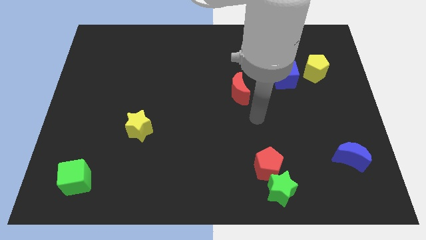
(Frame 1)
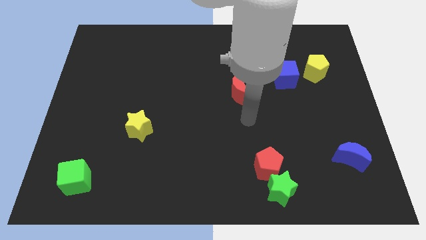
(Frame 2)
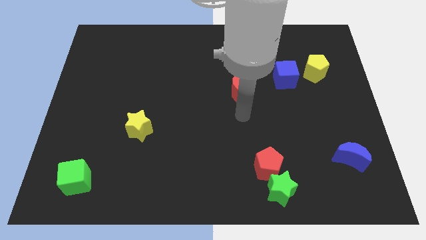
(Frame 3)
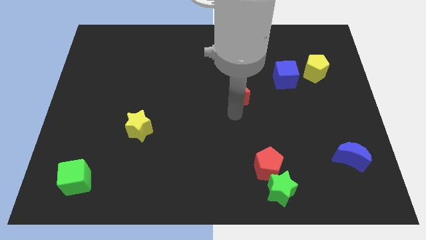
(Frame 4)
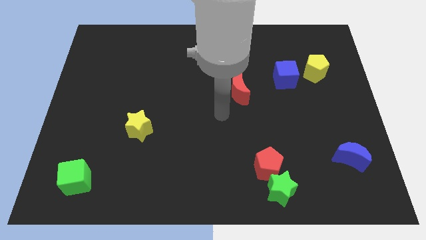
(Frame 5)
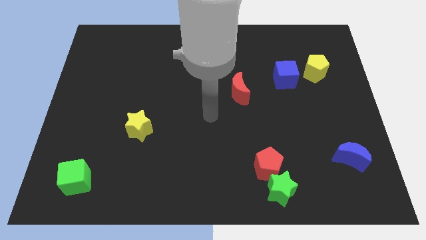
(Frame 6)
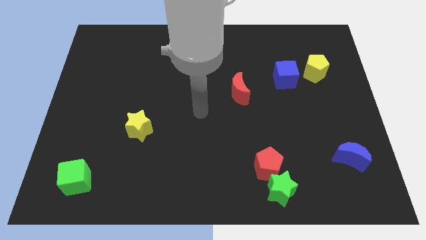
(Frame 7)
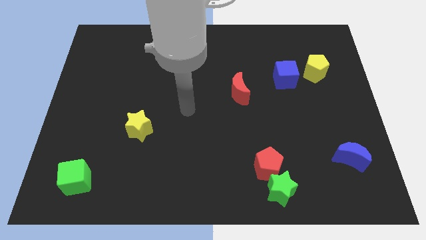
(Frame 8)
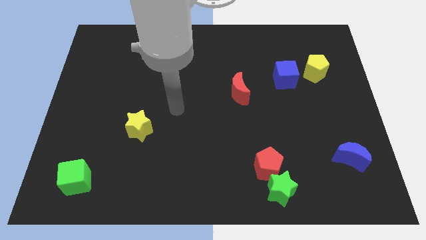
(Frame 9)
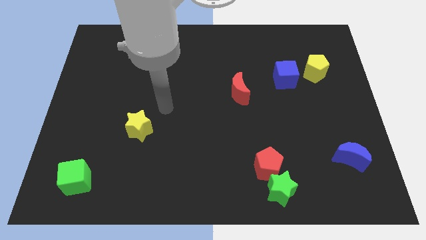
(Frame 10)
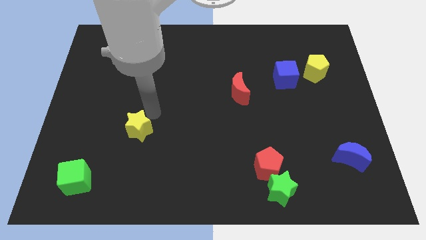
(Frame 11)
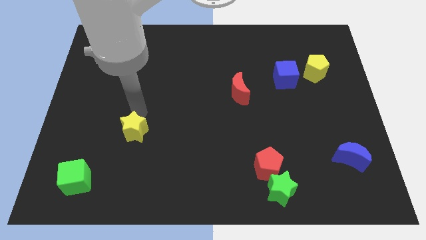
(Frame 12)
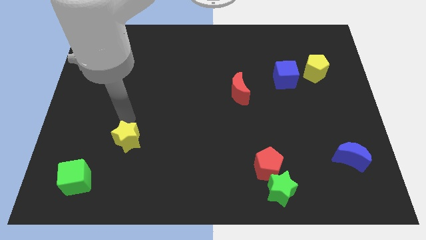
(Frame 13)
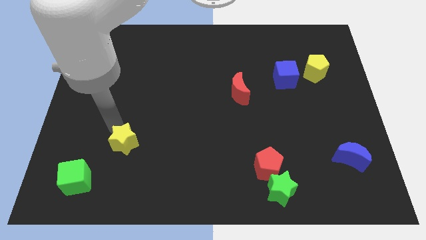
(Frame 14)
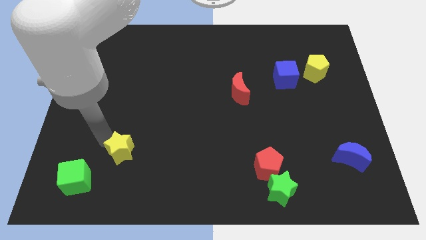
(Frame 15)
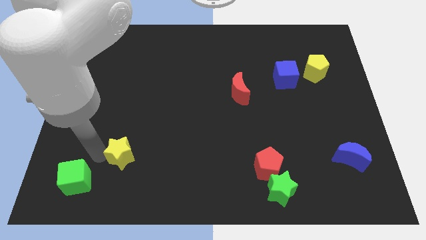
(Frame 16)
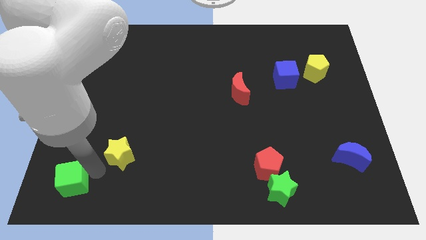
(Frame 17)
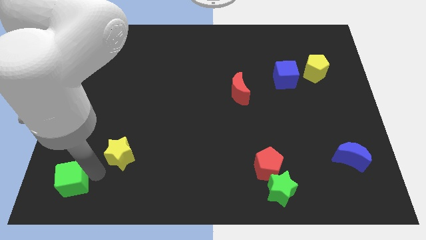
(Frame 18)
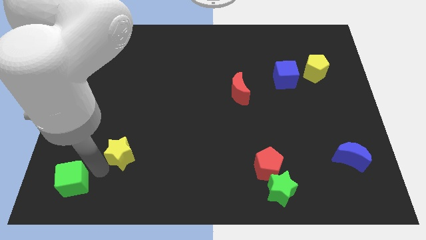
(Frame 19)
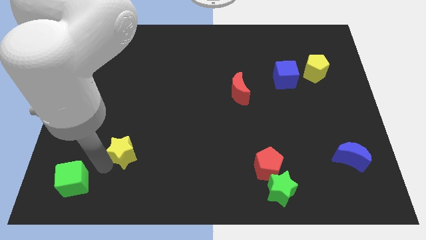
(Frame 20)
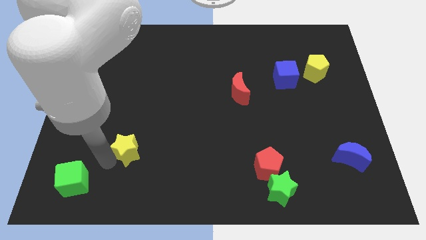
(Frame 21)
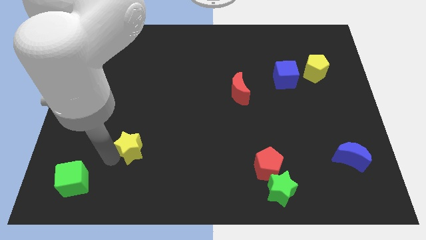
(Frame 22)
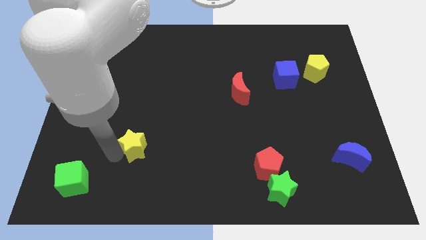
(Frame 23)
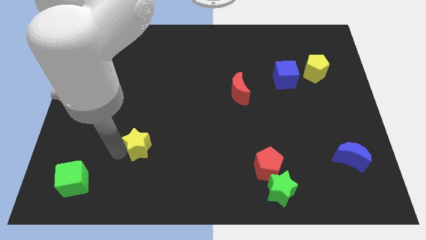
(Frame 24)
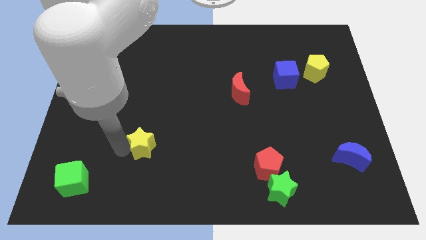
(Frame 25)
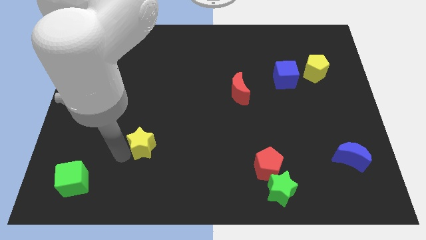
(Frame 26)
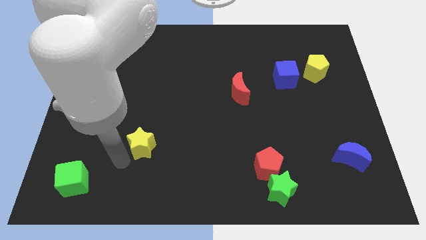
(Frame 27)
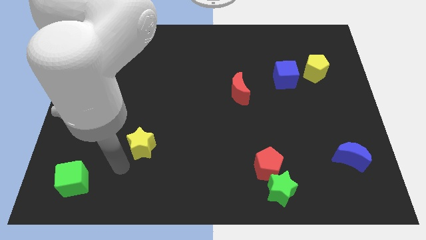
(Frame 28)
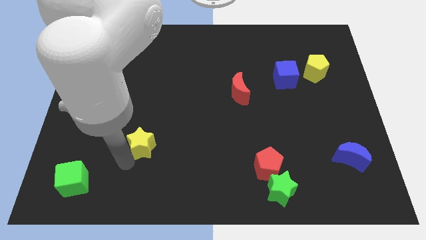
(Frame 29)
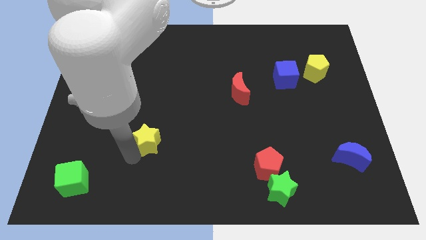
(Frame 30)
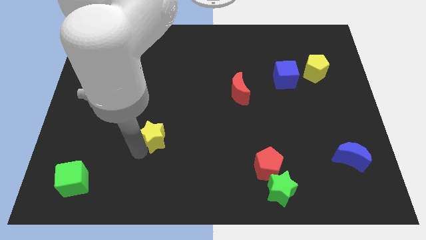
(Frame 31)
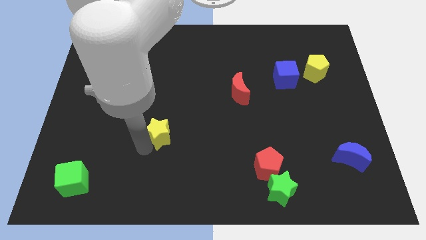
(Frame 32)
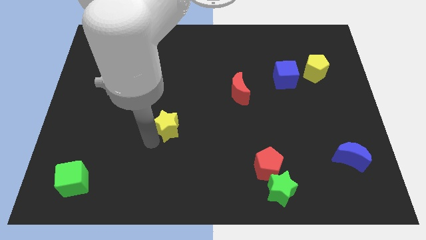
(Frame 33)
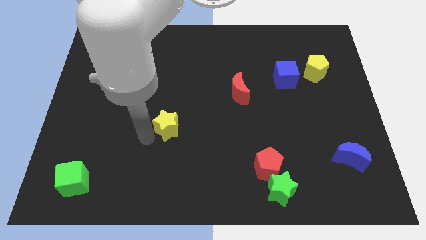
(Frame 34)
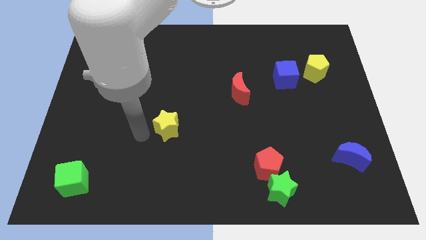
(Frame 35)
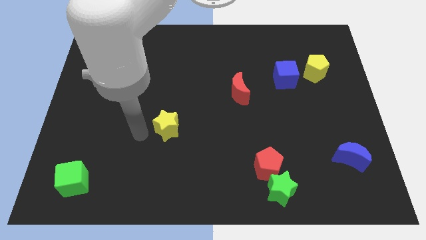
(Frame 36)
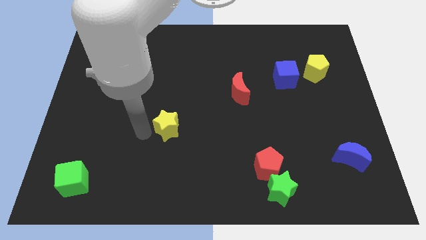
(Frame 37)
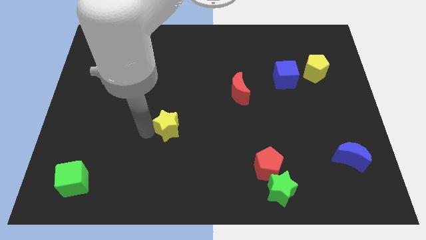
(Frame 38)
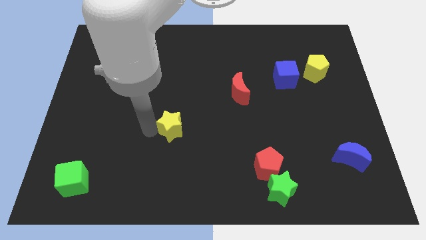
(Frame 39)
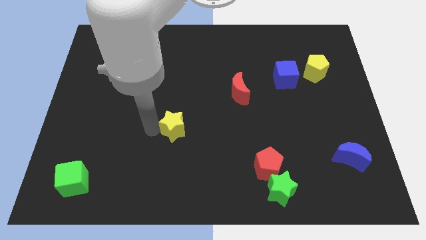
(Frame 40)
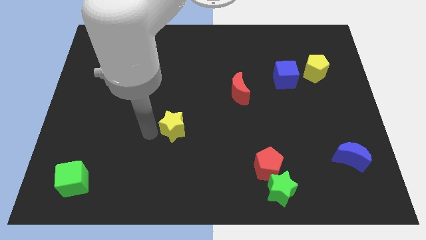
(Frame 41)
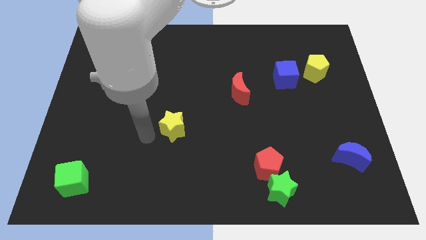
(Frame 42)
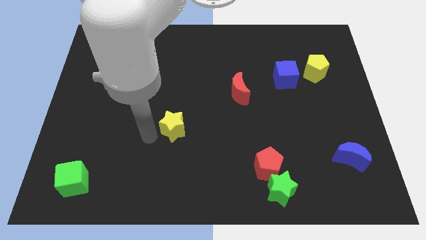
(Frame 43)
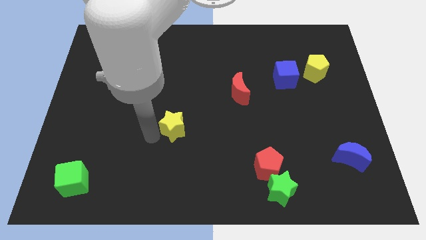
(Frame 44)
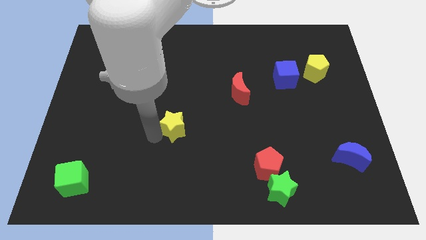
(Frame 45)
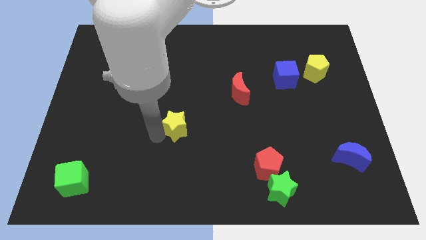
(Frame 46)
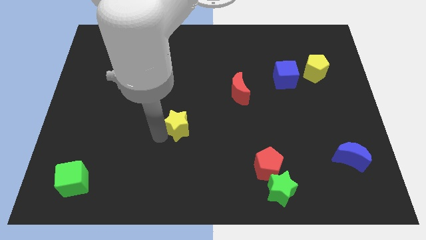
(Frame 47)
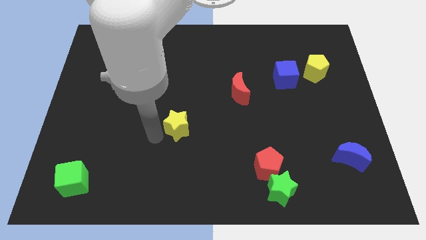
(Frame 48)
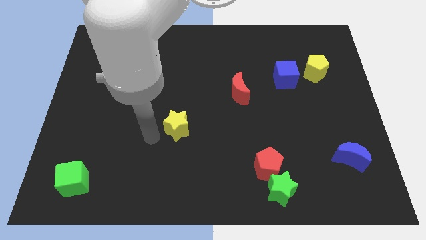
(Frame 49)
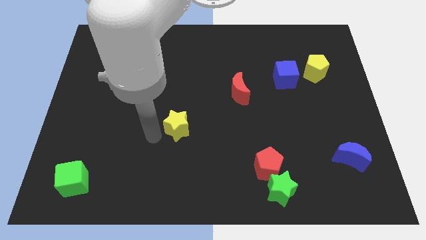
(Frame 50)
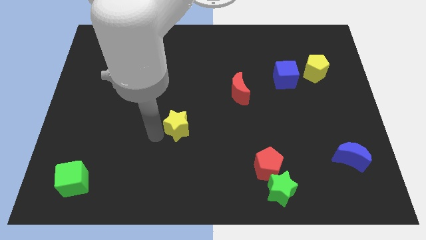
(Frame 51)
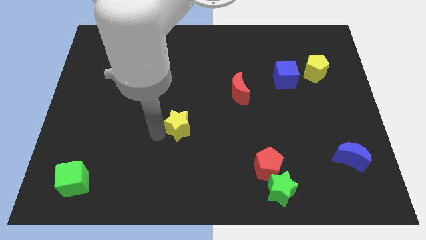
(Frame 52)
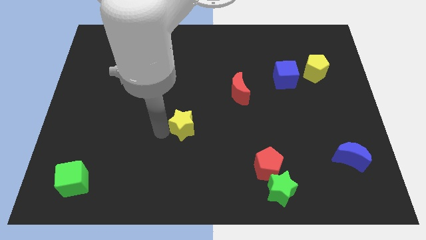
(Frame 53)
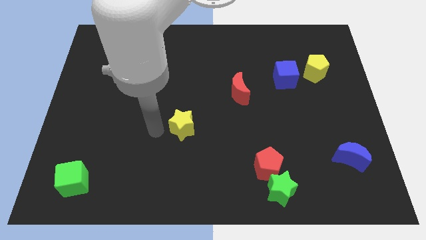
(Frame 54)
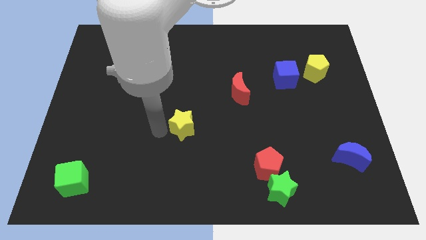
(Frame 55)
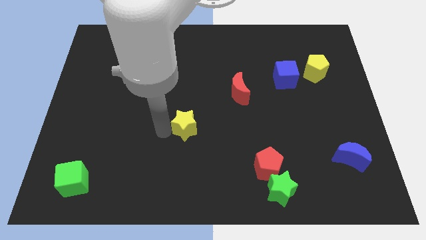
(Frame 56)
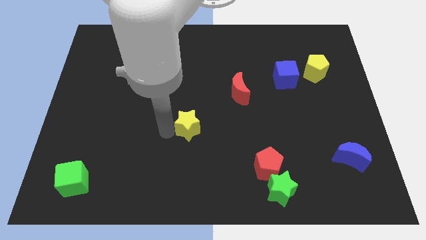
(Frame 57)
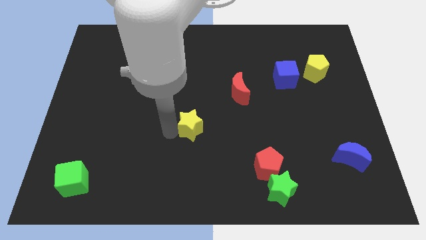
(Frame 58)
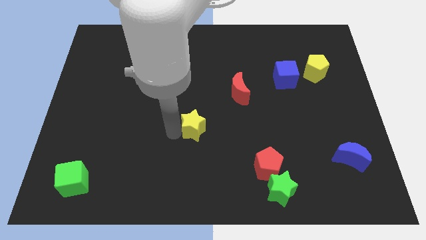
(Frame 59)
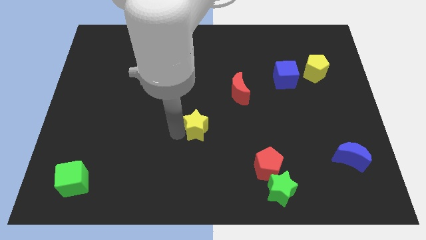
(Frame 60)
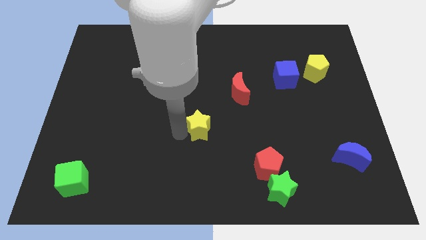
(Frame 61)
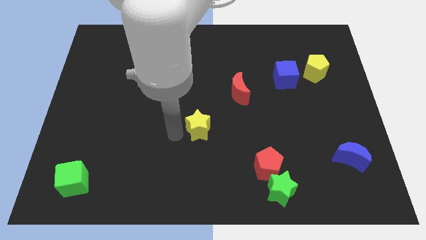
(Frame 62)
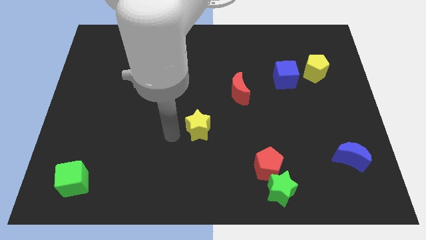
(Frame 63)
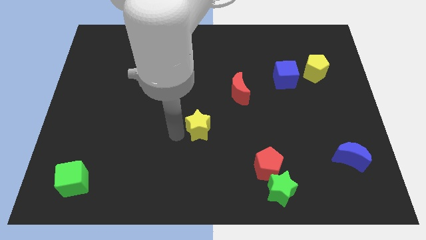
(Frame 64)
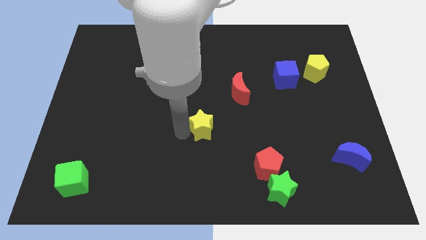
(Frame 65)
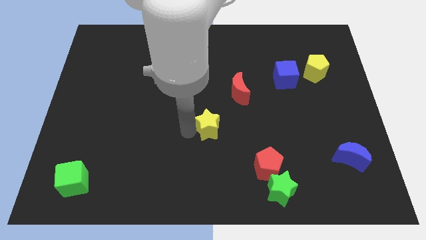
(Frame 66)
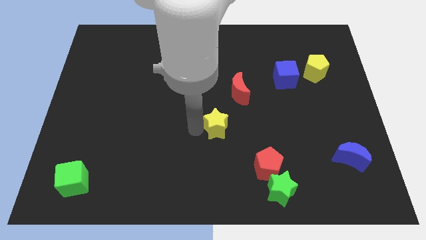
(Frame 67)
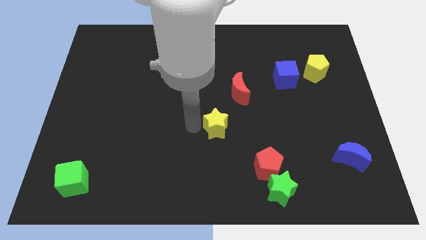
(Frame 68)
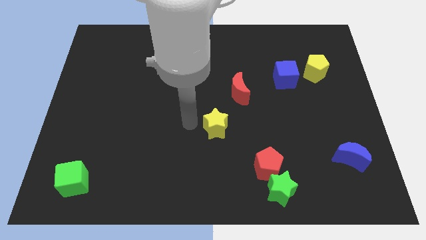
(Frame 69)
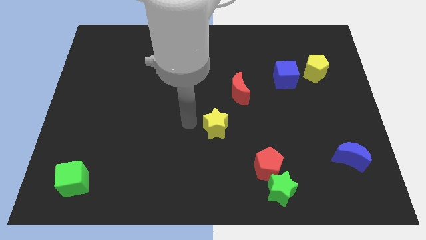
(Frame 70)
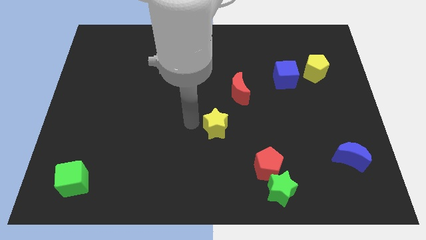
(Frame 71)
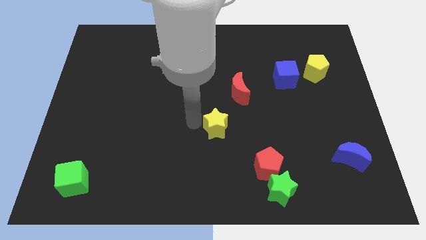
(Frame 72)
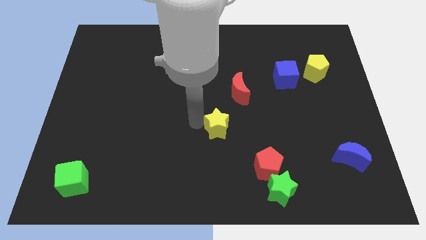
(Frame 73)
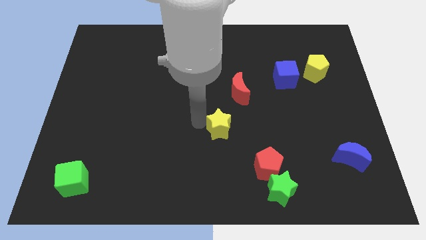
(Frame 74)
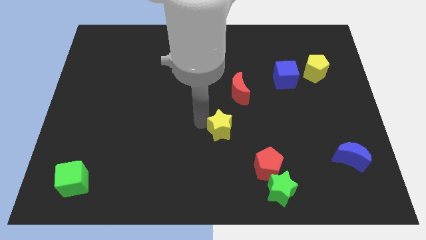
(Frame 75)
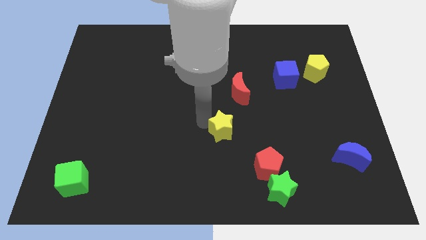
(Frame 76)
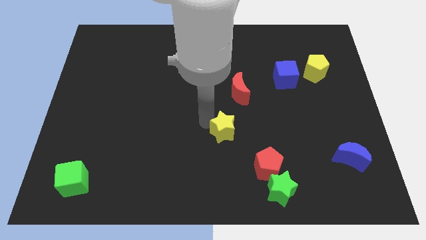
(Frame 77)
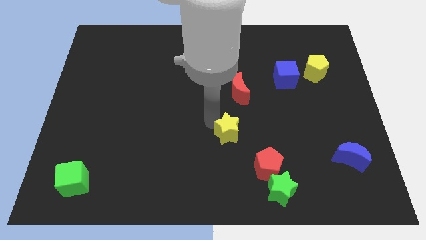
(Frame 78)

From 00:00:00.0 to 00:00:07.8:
move the yellow star to the right

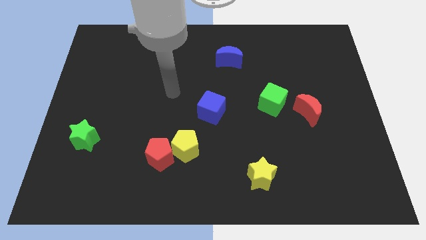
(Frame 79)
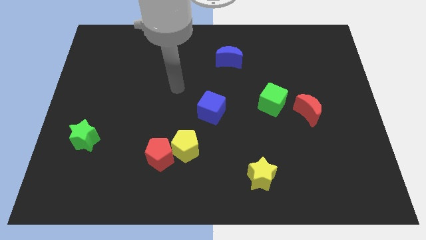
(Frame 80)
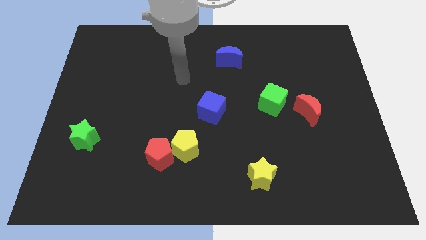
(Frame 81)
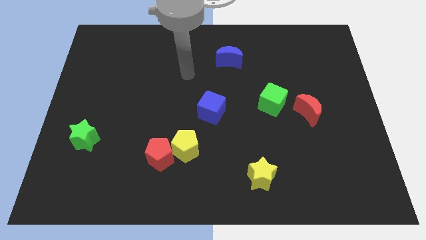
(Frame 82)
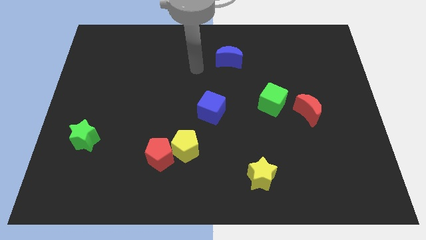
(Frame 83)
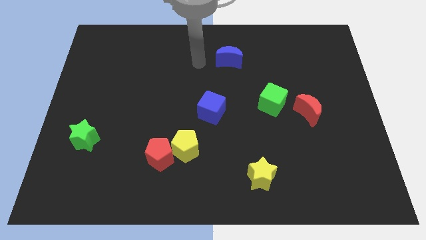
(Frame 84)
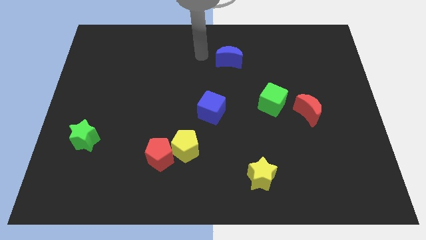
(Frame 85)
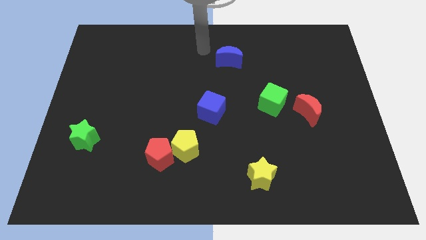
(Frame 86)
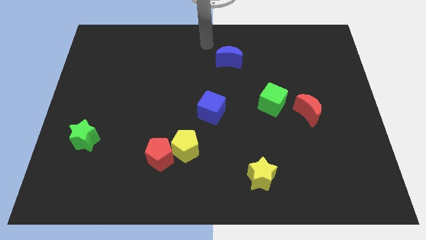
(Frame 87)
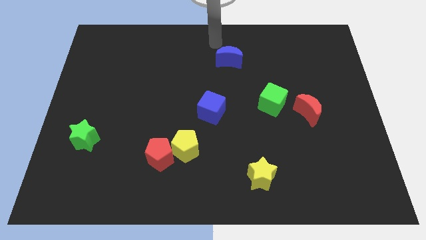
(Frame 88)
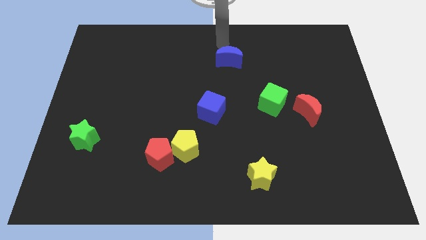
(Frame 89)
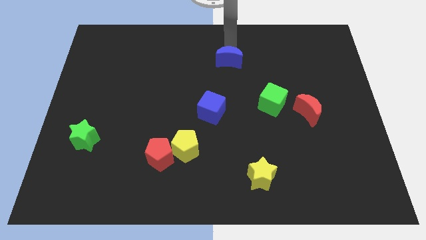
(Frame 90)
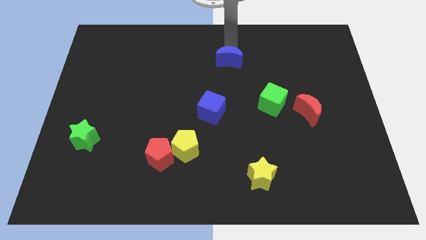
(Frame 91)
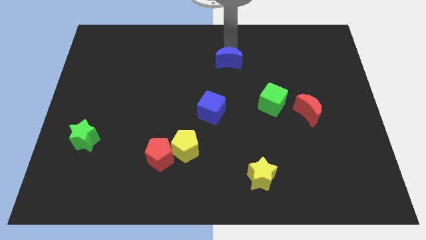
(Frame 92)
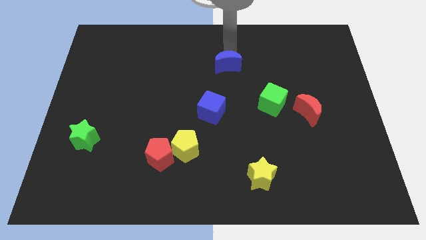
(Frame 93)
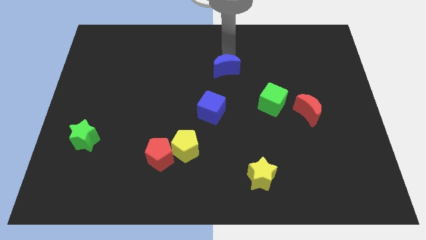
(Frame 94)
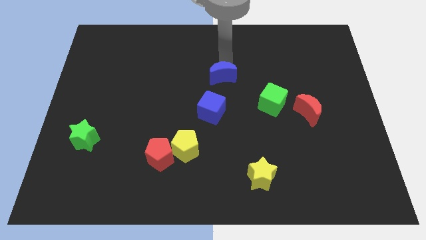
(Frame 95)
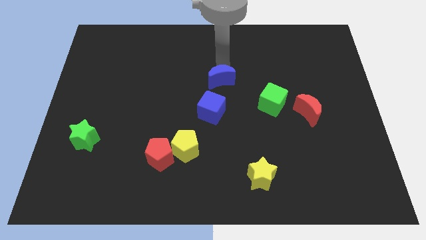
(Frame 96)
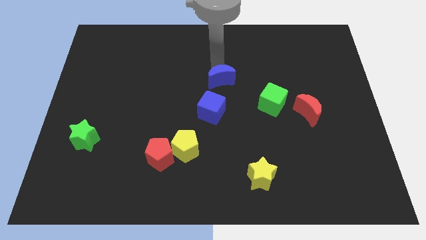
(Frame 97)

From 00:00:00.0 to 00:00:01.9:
slide the blue moon slightly downwards
